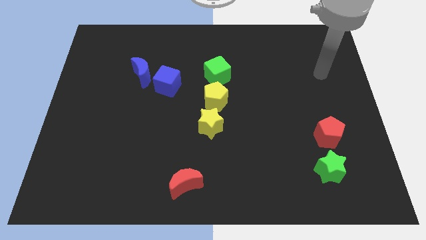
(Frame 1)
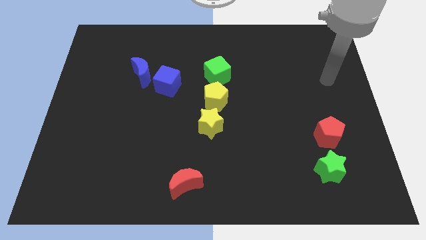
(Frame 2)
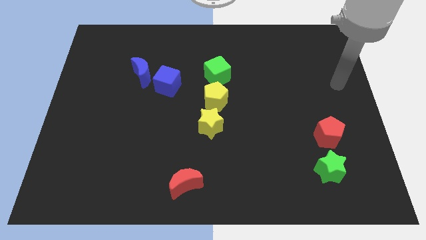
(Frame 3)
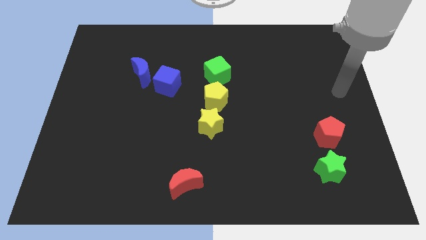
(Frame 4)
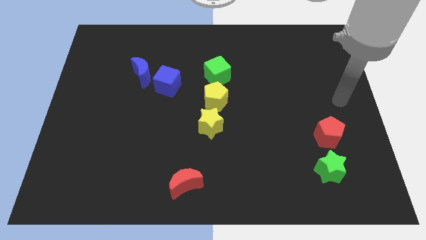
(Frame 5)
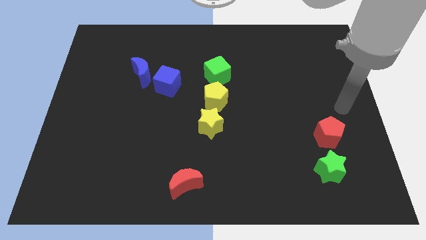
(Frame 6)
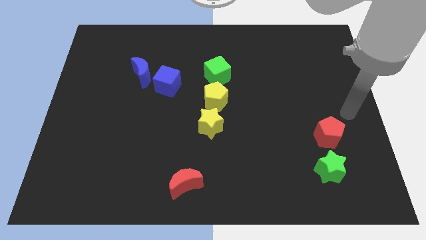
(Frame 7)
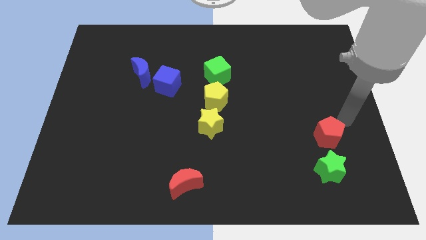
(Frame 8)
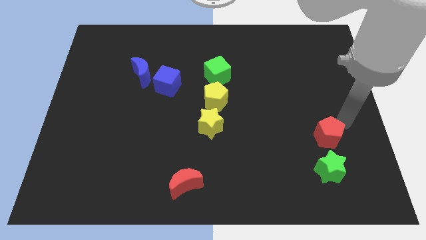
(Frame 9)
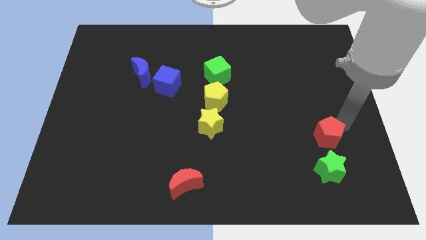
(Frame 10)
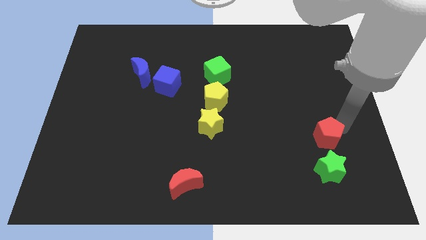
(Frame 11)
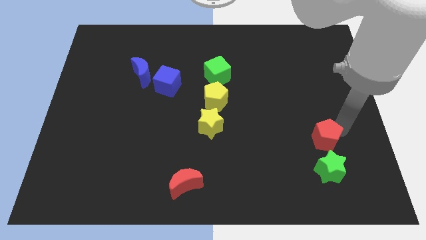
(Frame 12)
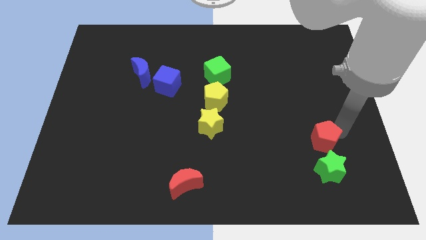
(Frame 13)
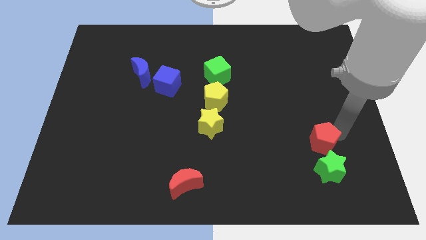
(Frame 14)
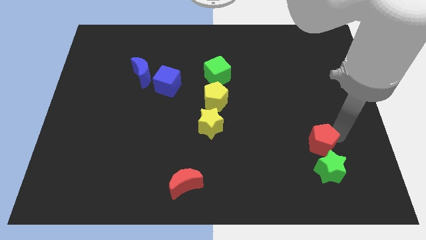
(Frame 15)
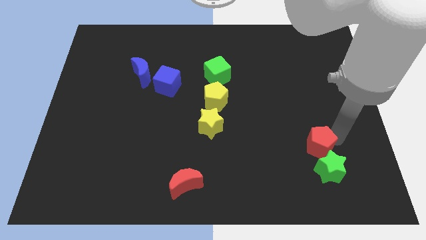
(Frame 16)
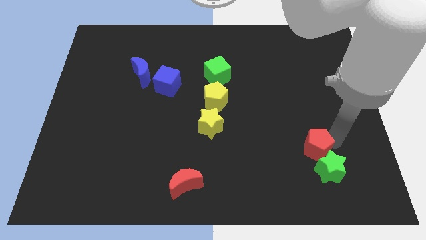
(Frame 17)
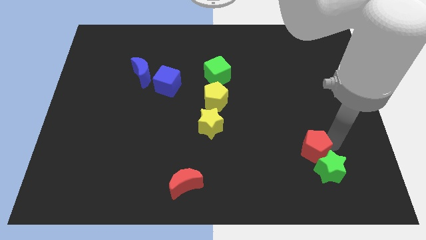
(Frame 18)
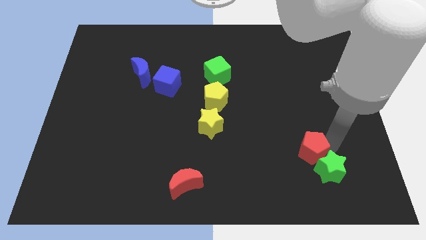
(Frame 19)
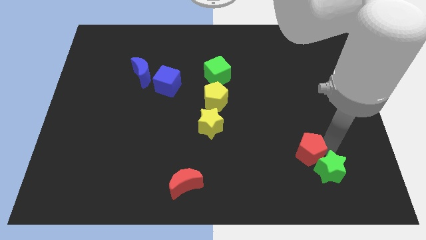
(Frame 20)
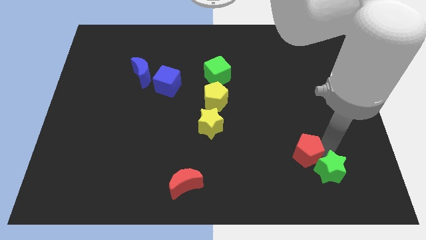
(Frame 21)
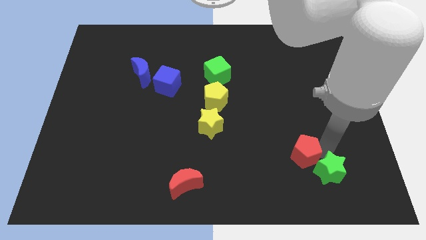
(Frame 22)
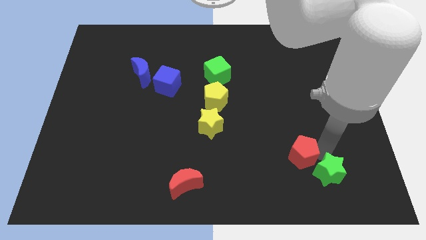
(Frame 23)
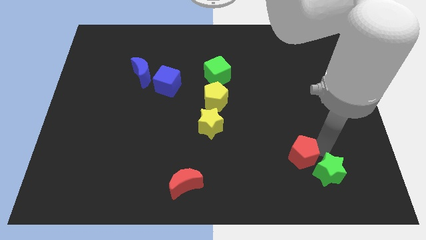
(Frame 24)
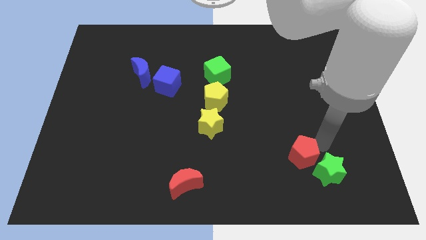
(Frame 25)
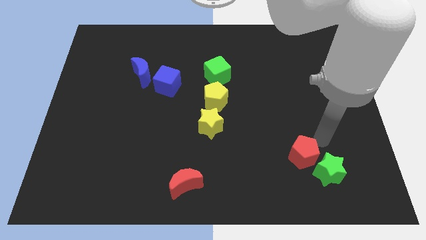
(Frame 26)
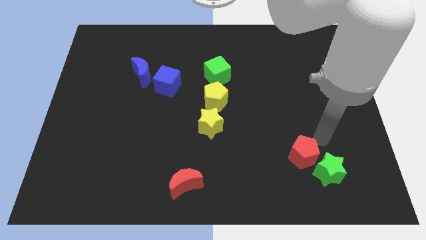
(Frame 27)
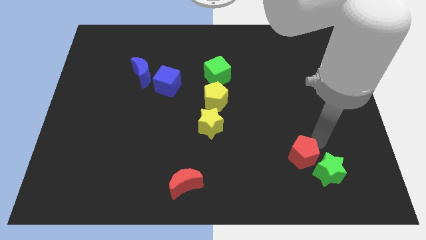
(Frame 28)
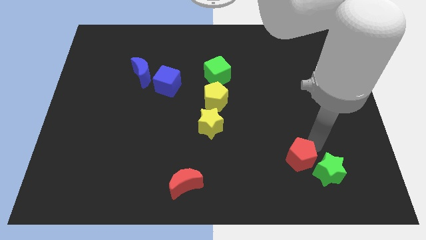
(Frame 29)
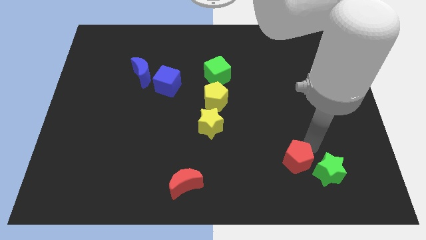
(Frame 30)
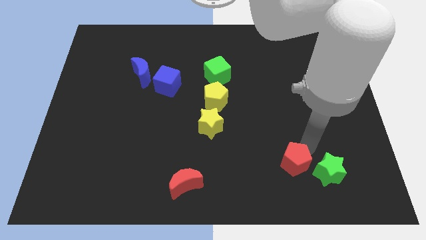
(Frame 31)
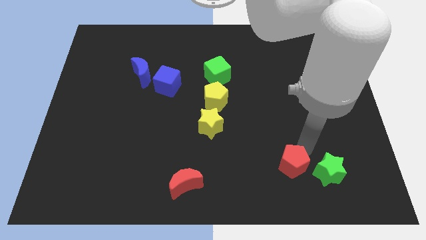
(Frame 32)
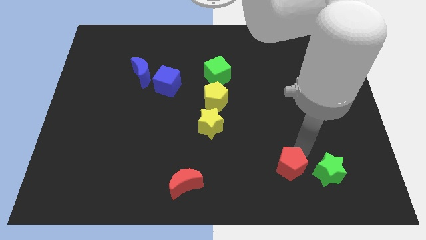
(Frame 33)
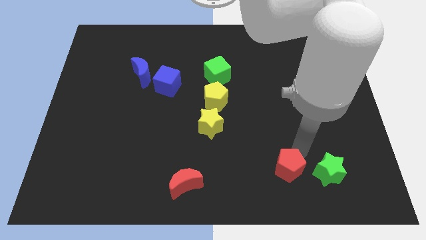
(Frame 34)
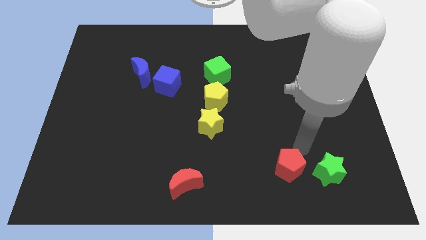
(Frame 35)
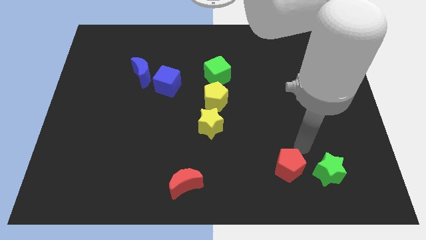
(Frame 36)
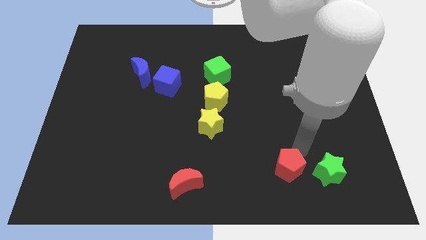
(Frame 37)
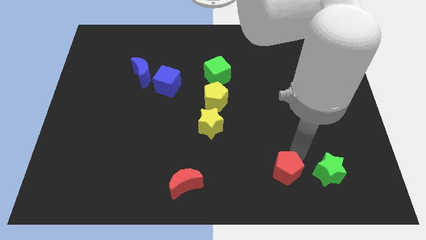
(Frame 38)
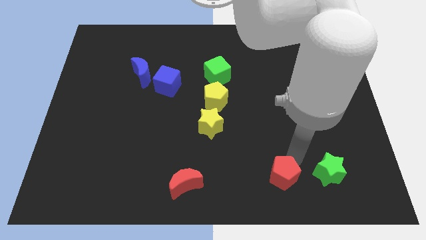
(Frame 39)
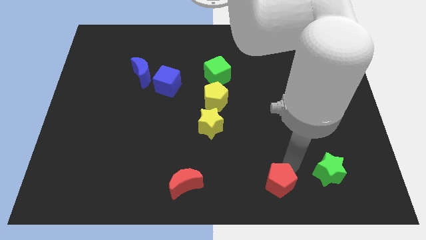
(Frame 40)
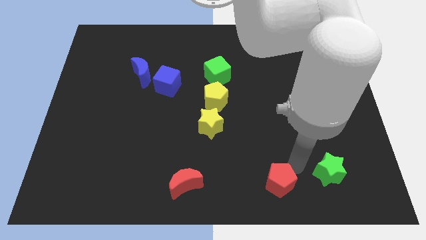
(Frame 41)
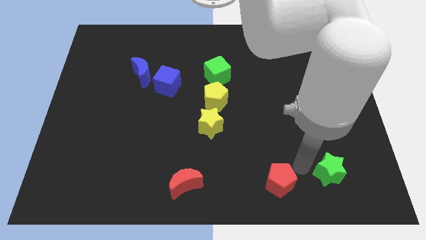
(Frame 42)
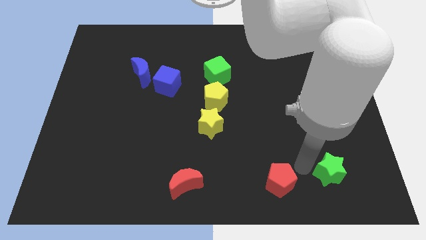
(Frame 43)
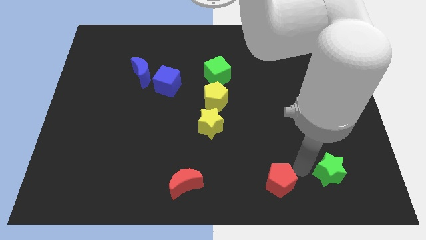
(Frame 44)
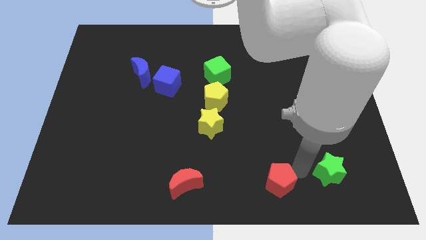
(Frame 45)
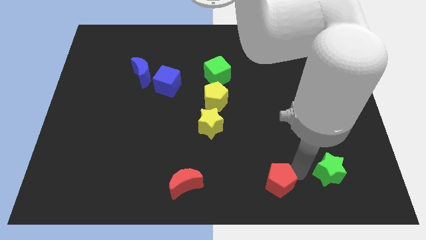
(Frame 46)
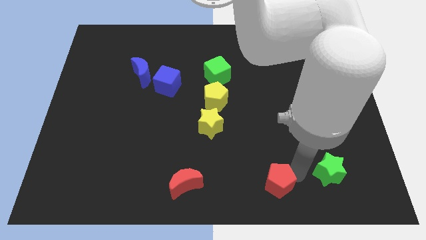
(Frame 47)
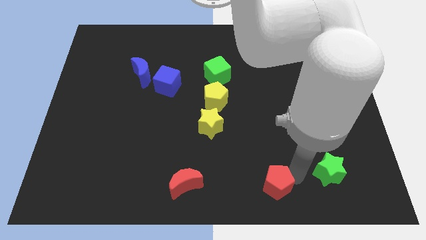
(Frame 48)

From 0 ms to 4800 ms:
move the red pentagon to the bottom

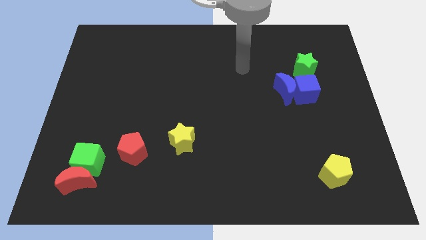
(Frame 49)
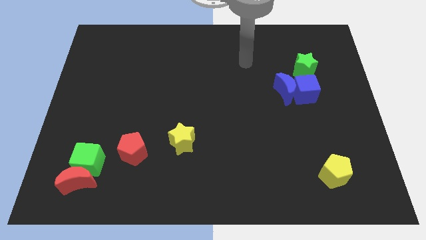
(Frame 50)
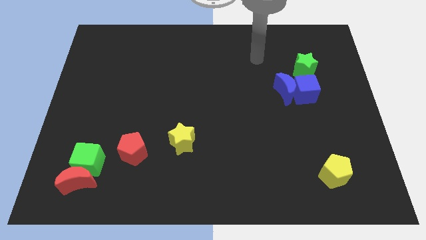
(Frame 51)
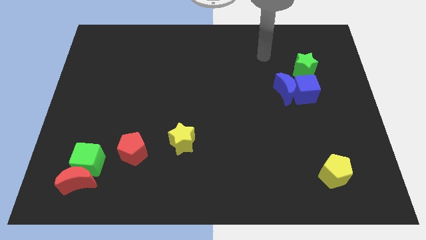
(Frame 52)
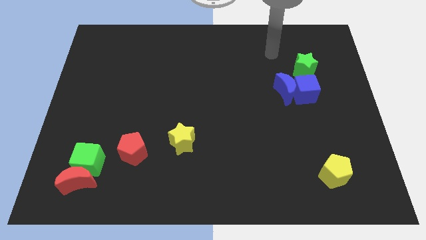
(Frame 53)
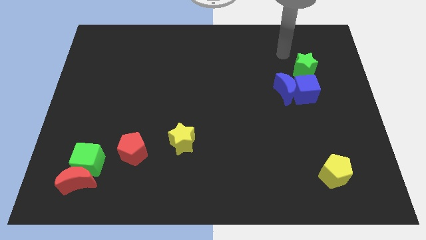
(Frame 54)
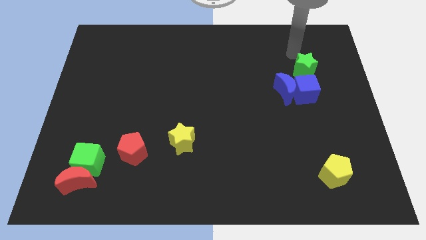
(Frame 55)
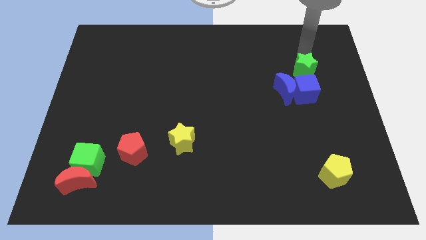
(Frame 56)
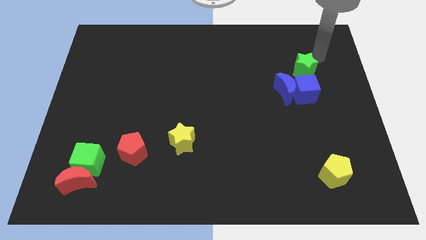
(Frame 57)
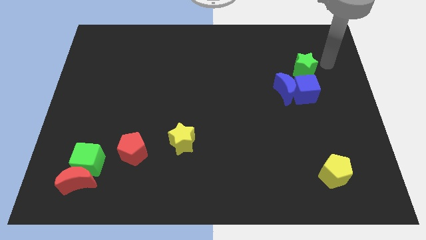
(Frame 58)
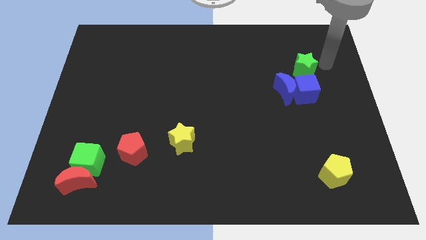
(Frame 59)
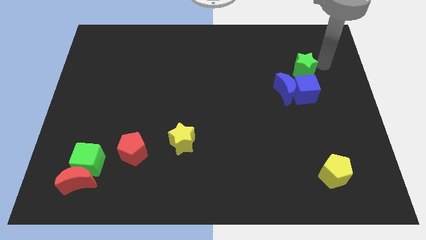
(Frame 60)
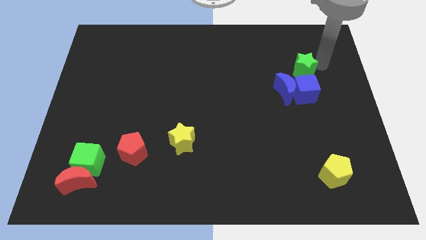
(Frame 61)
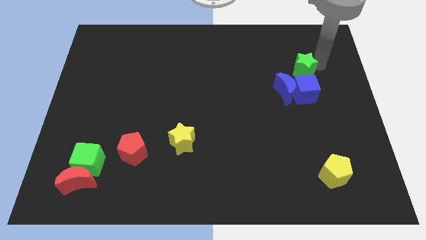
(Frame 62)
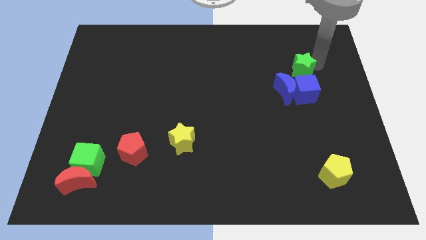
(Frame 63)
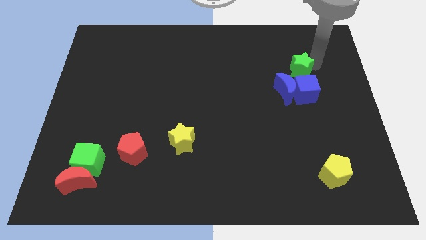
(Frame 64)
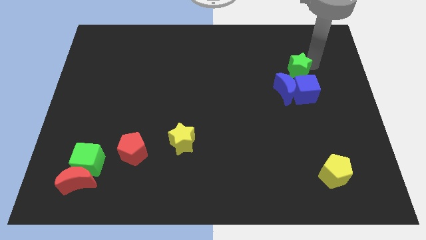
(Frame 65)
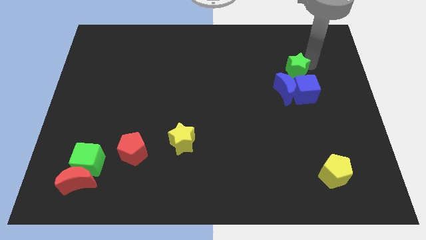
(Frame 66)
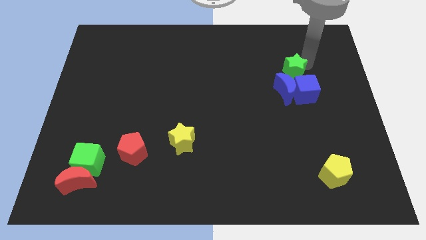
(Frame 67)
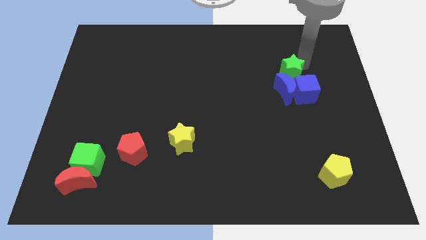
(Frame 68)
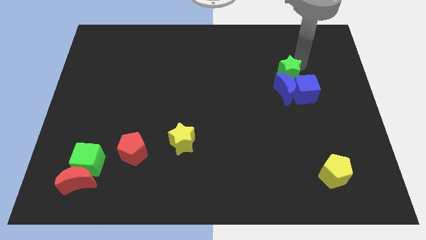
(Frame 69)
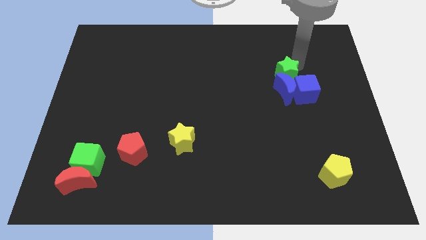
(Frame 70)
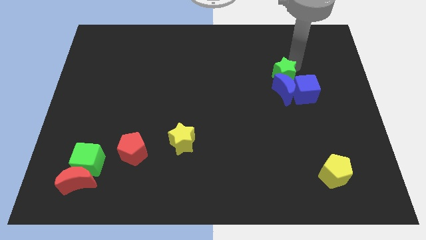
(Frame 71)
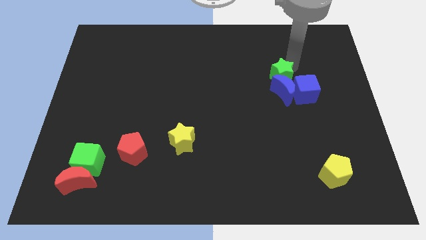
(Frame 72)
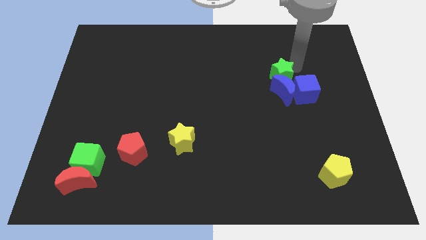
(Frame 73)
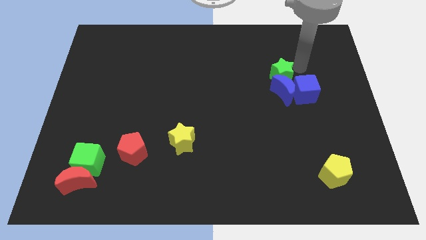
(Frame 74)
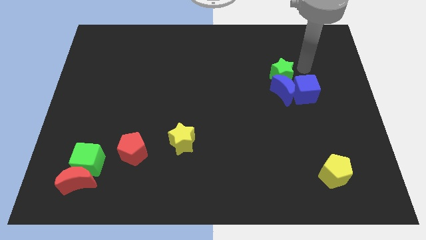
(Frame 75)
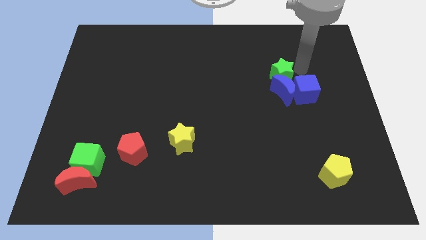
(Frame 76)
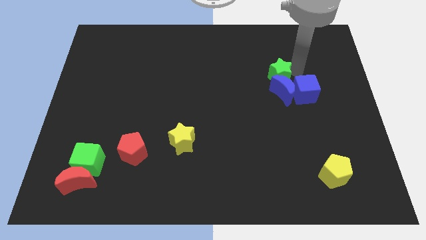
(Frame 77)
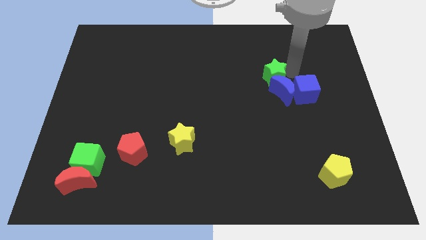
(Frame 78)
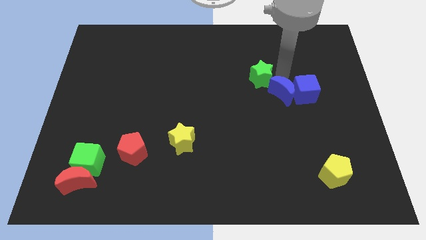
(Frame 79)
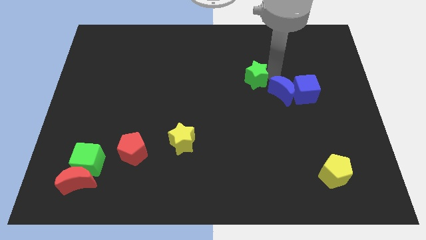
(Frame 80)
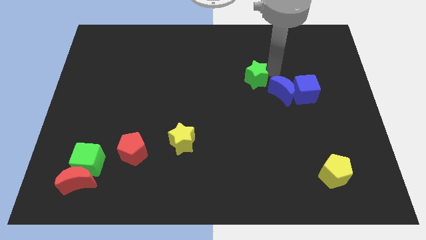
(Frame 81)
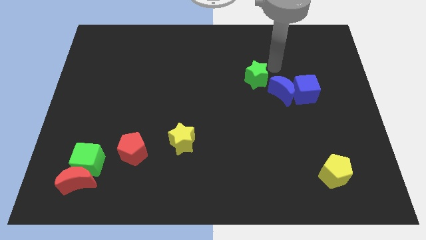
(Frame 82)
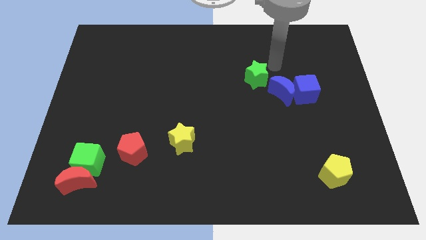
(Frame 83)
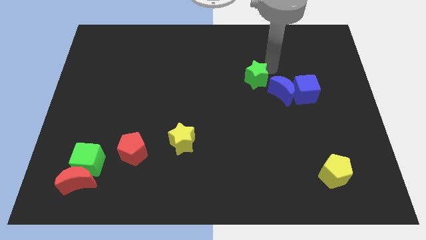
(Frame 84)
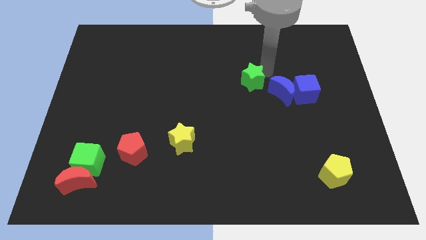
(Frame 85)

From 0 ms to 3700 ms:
move the green star to the center
